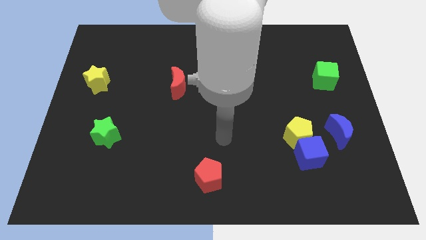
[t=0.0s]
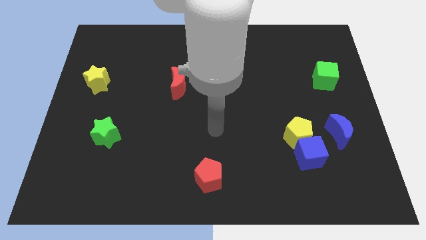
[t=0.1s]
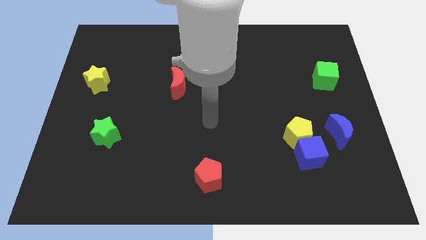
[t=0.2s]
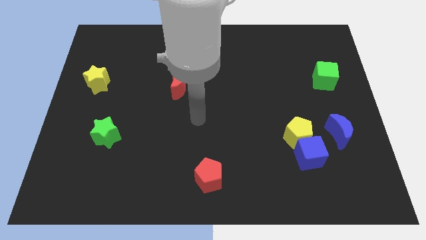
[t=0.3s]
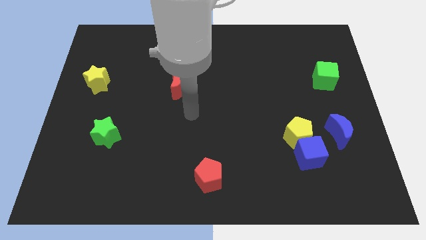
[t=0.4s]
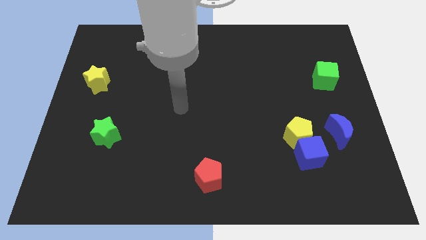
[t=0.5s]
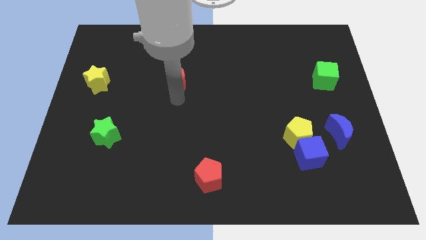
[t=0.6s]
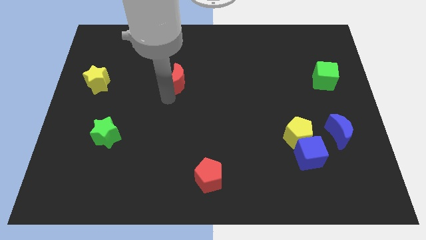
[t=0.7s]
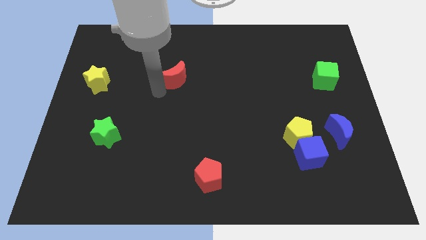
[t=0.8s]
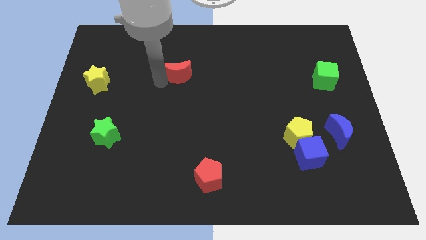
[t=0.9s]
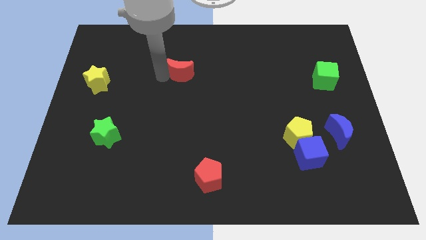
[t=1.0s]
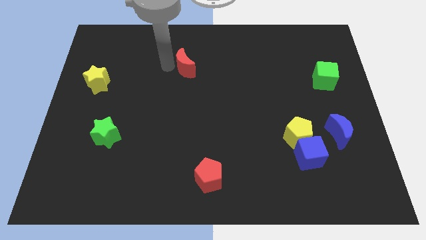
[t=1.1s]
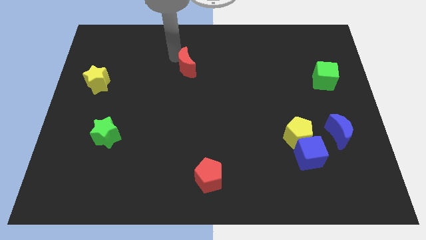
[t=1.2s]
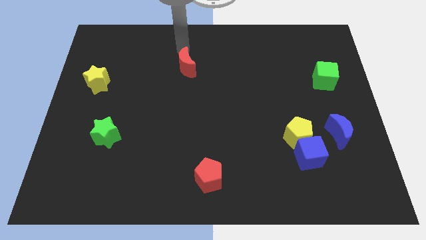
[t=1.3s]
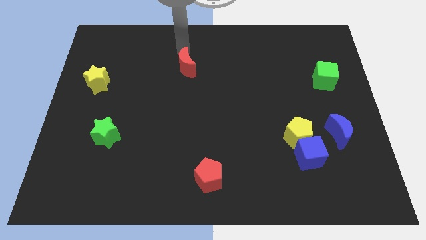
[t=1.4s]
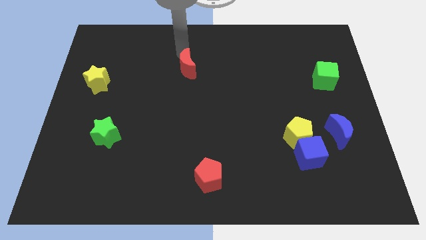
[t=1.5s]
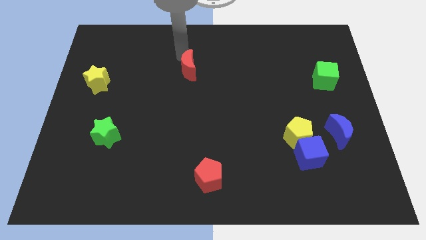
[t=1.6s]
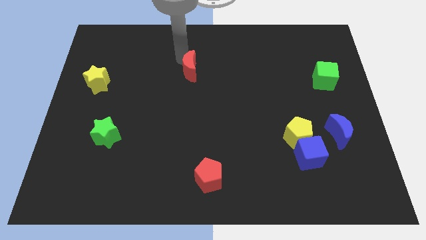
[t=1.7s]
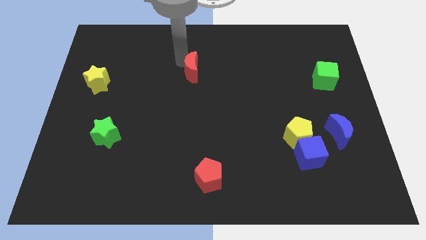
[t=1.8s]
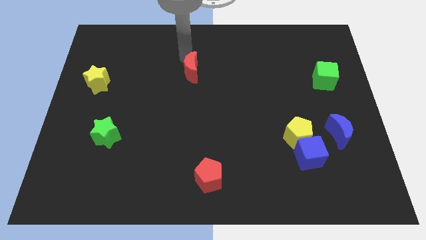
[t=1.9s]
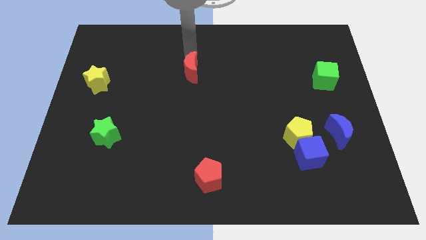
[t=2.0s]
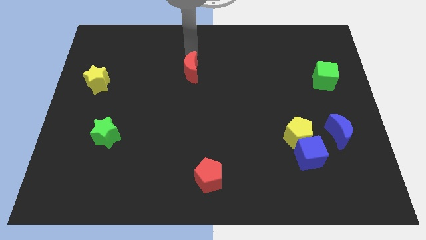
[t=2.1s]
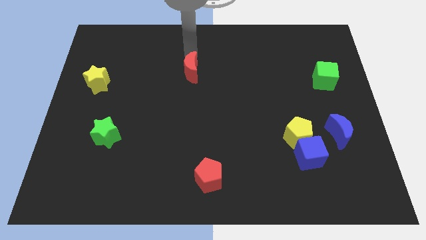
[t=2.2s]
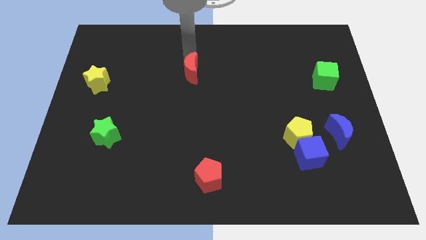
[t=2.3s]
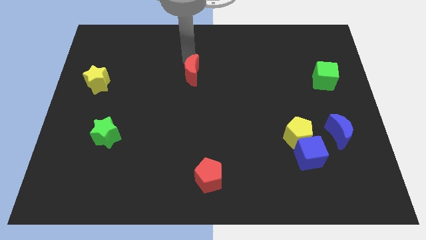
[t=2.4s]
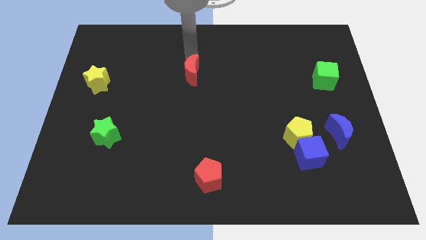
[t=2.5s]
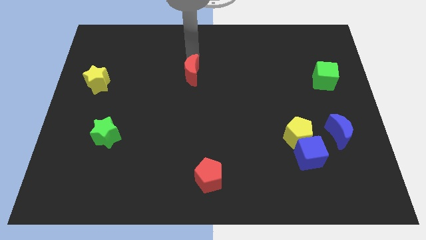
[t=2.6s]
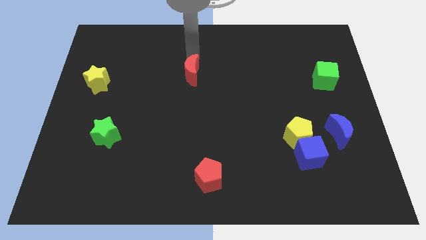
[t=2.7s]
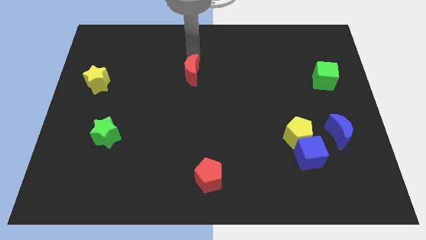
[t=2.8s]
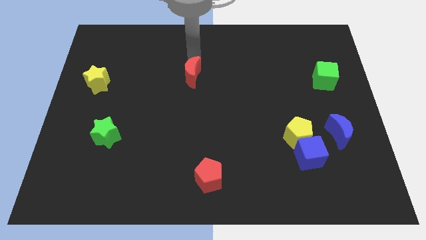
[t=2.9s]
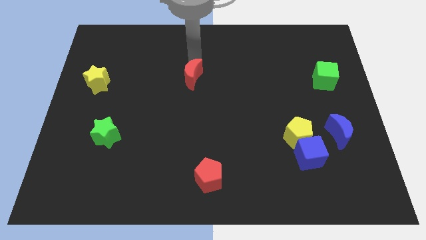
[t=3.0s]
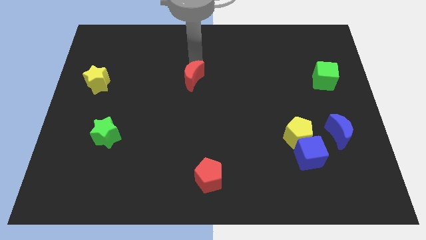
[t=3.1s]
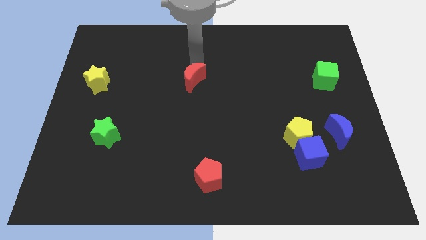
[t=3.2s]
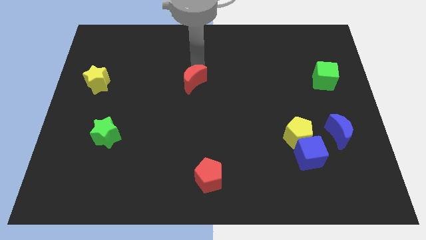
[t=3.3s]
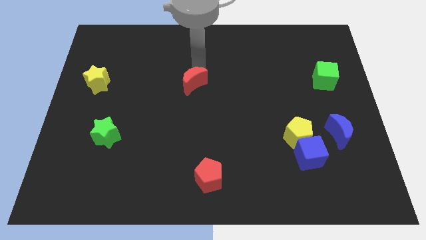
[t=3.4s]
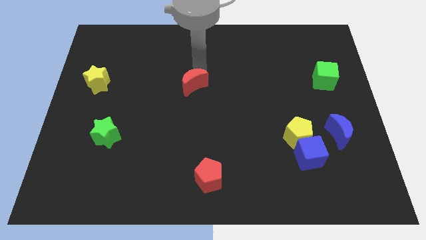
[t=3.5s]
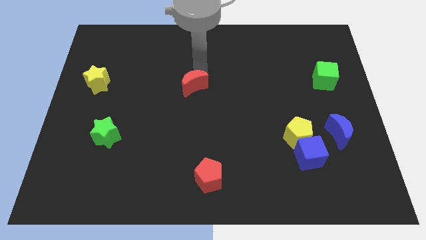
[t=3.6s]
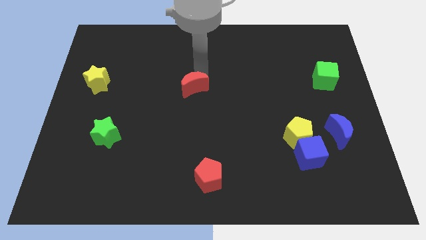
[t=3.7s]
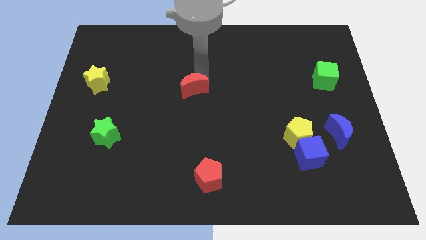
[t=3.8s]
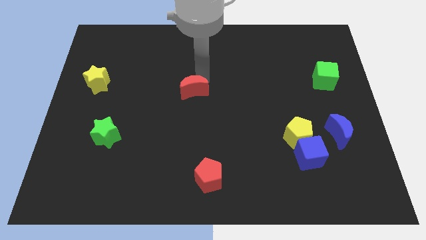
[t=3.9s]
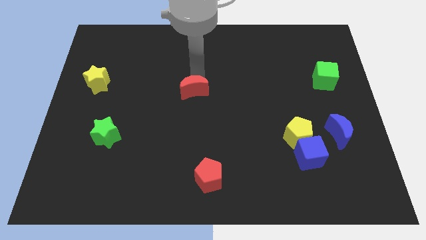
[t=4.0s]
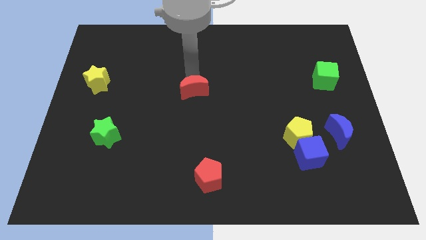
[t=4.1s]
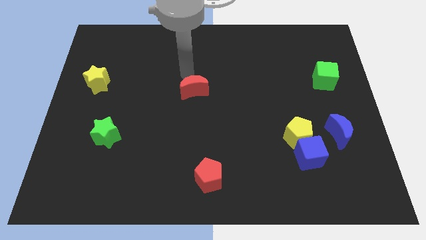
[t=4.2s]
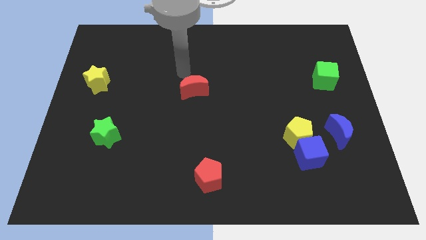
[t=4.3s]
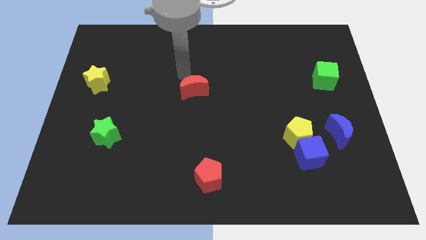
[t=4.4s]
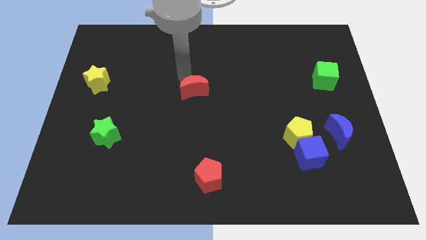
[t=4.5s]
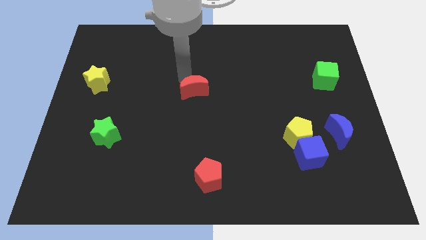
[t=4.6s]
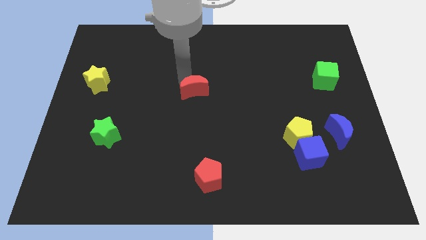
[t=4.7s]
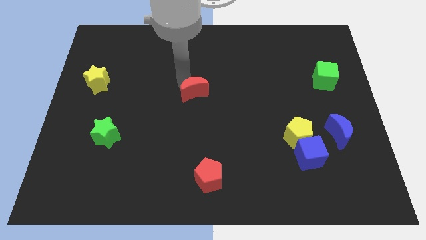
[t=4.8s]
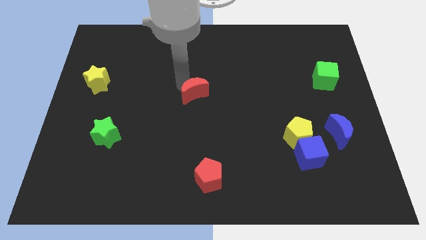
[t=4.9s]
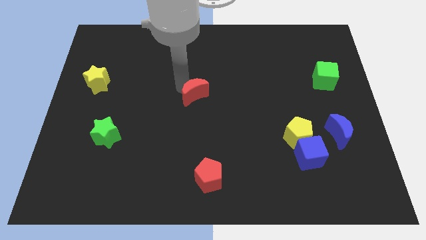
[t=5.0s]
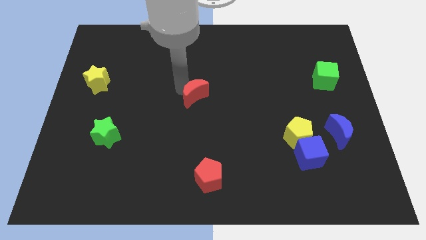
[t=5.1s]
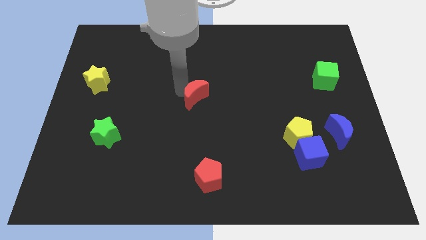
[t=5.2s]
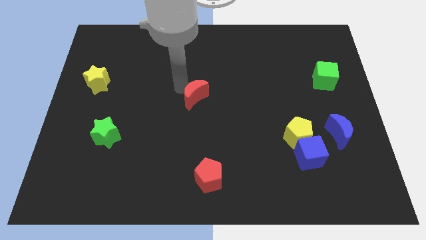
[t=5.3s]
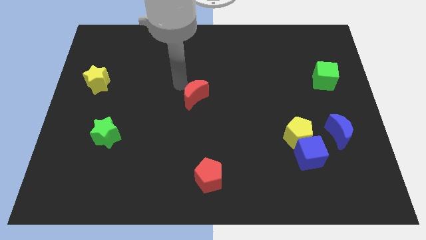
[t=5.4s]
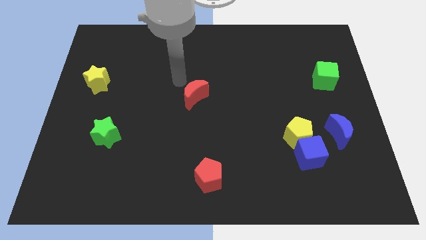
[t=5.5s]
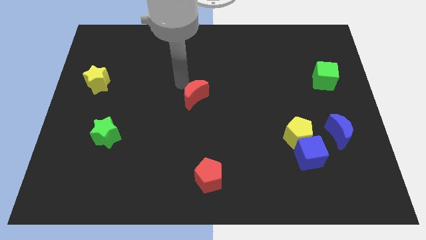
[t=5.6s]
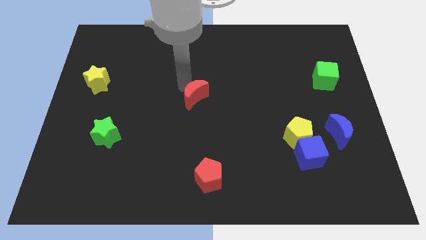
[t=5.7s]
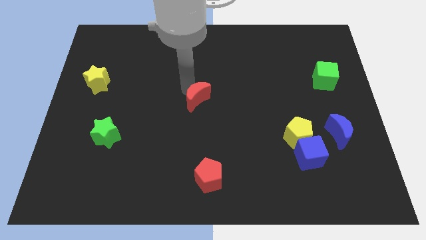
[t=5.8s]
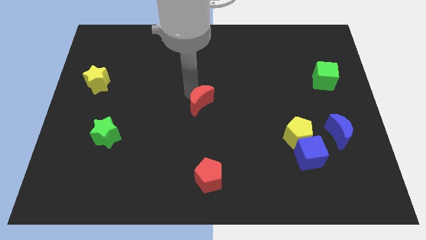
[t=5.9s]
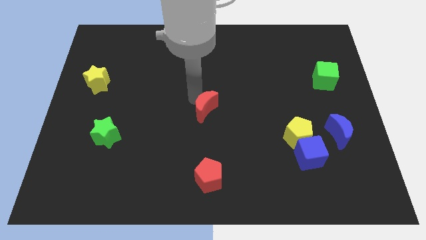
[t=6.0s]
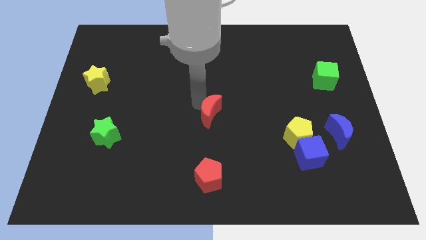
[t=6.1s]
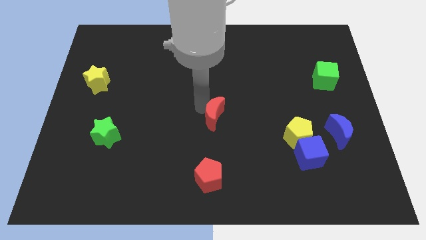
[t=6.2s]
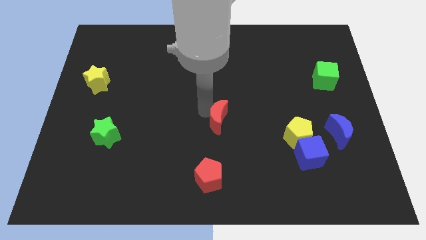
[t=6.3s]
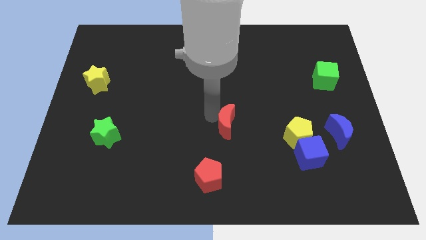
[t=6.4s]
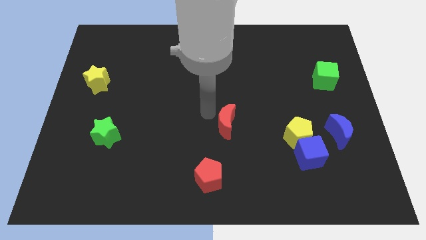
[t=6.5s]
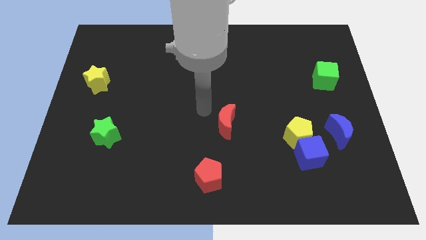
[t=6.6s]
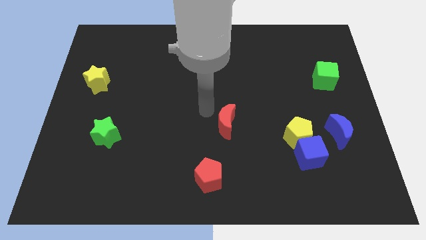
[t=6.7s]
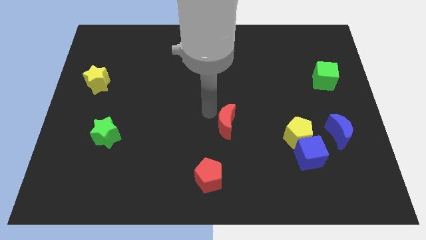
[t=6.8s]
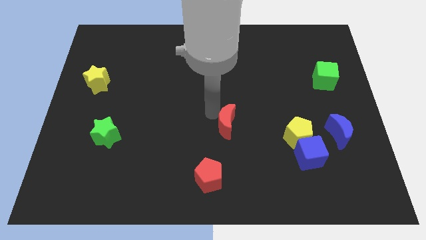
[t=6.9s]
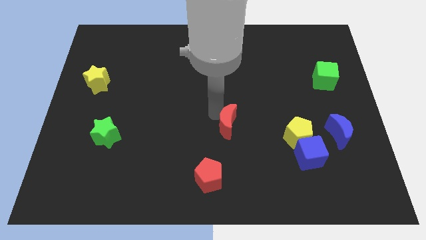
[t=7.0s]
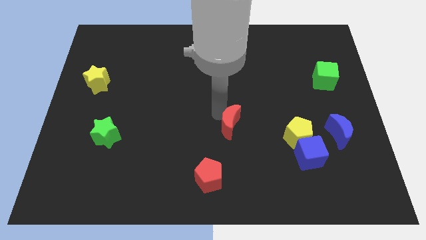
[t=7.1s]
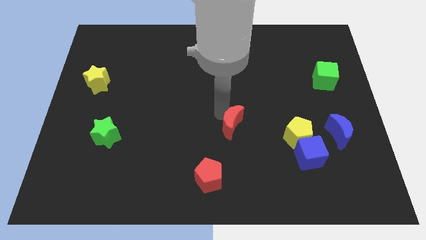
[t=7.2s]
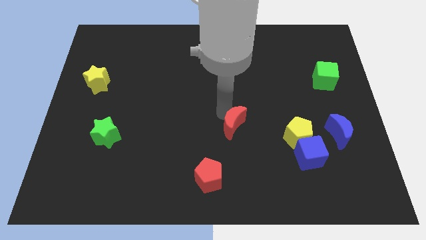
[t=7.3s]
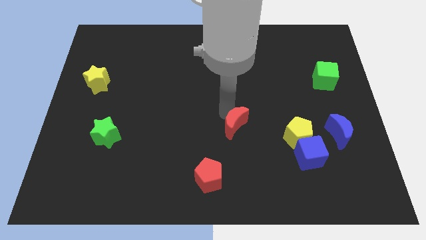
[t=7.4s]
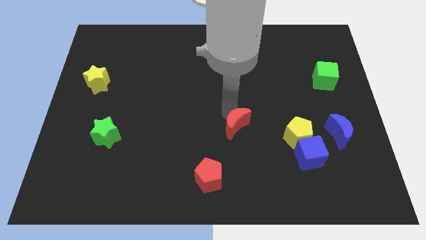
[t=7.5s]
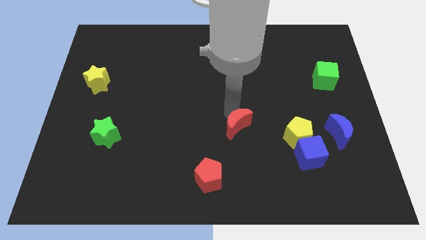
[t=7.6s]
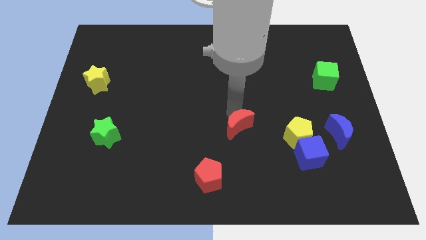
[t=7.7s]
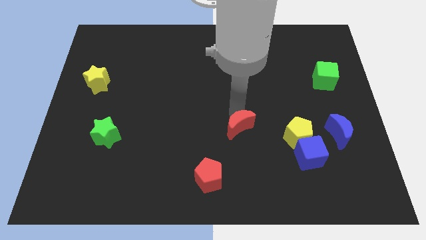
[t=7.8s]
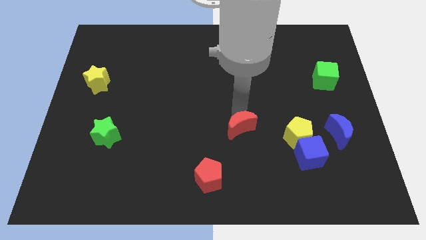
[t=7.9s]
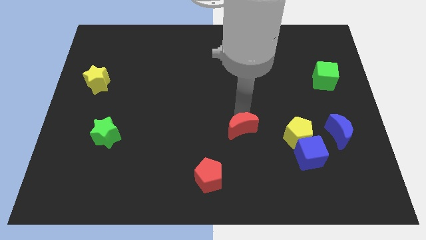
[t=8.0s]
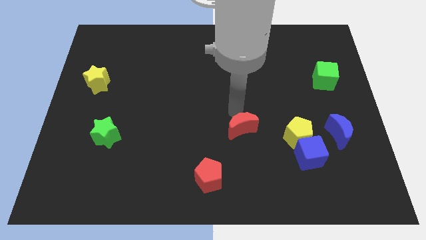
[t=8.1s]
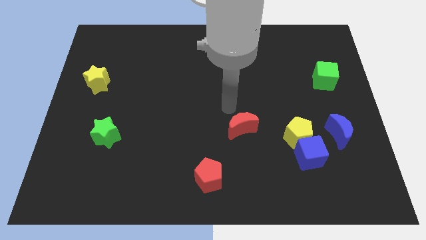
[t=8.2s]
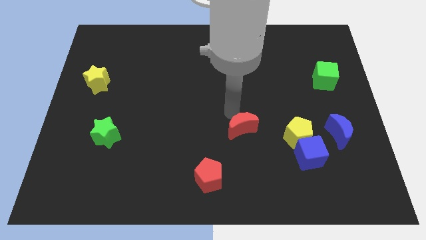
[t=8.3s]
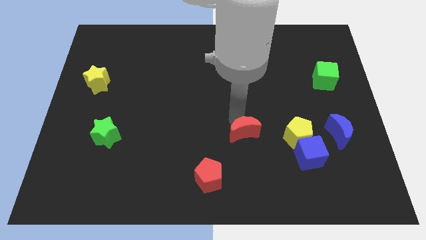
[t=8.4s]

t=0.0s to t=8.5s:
push the red moon down and then to the right
